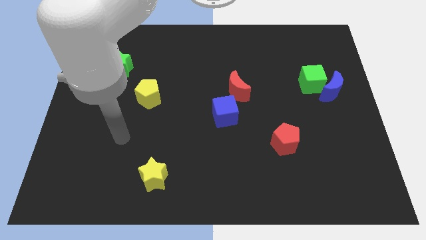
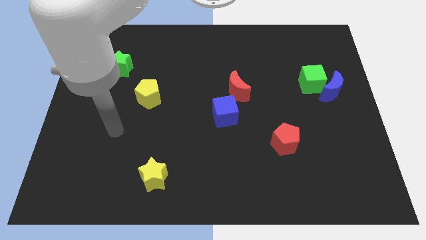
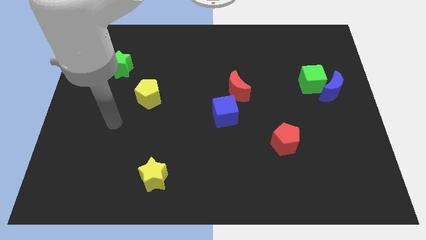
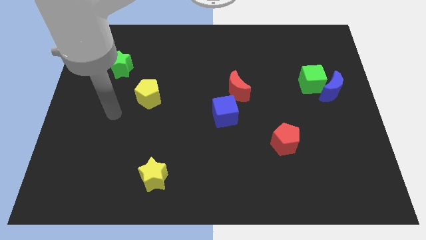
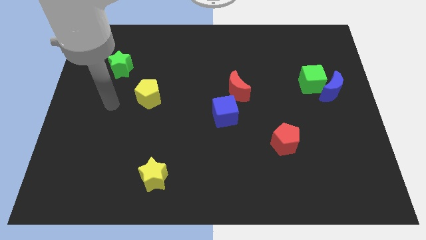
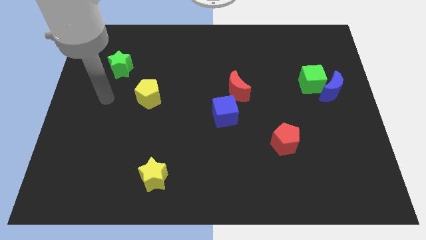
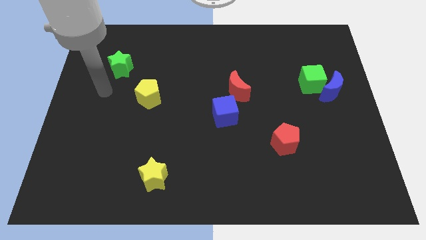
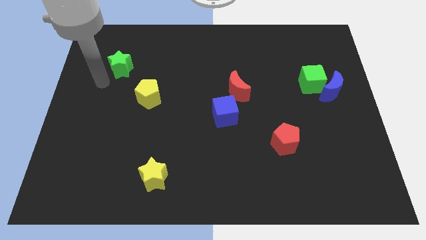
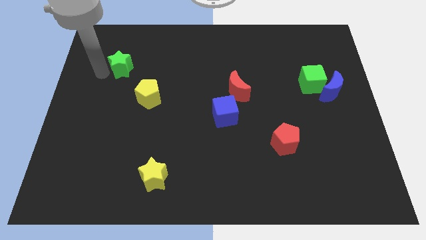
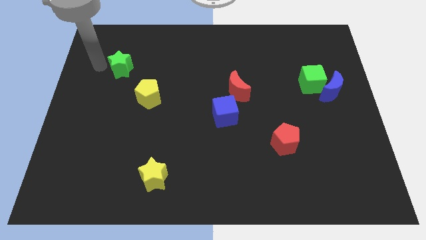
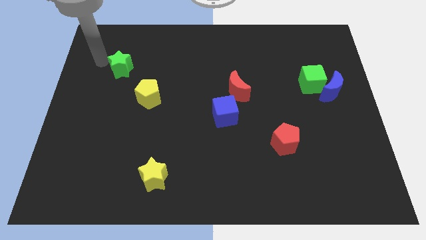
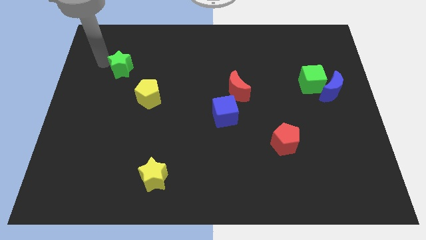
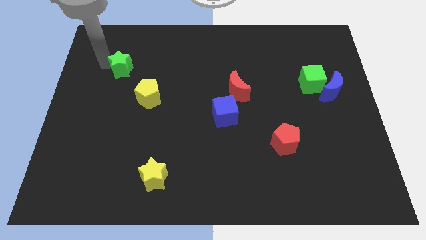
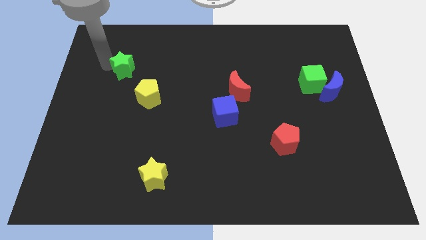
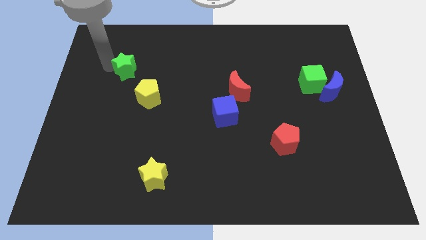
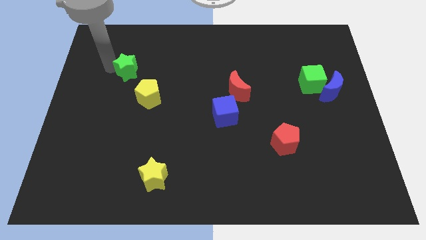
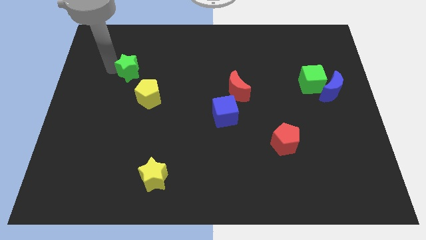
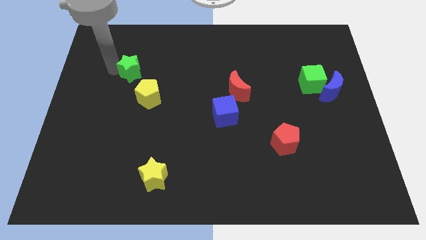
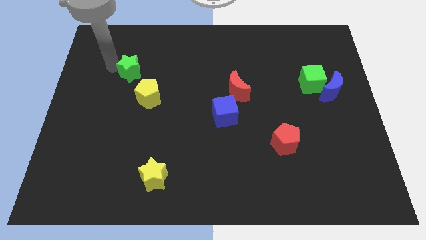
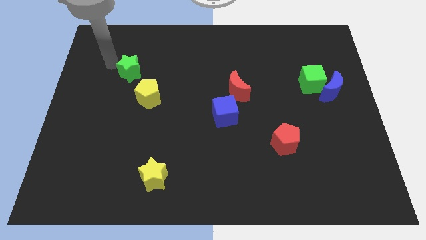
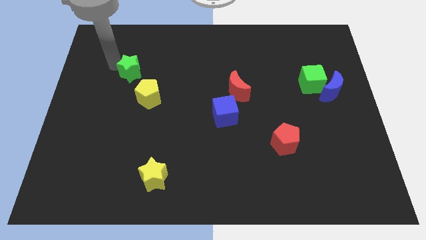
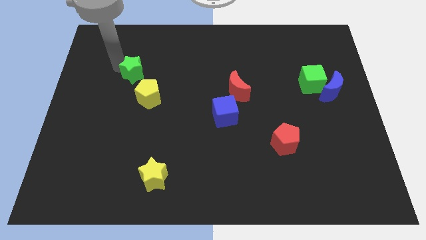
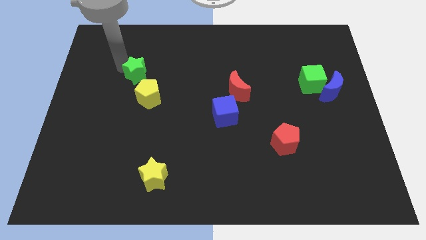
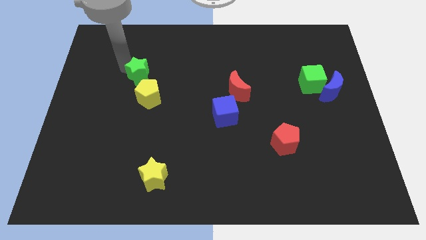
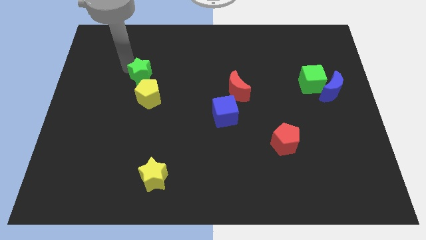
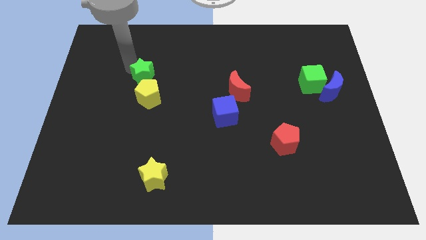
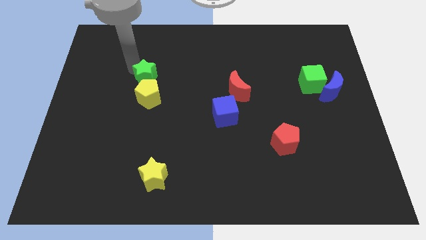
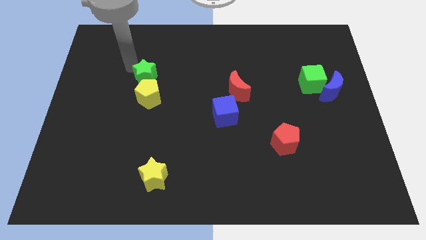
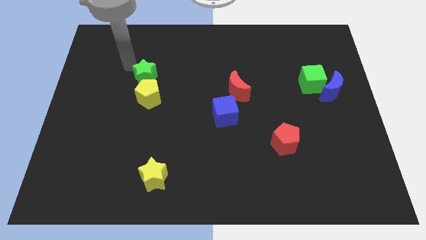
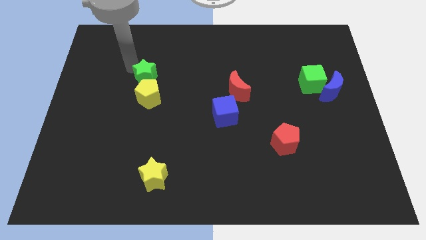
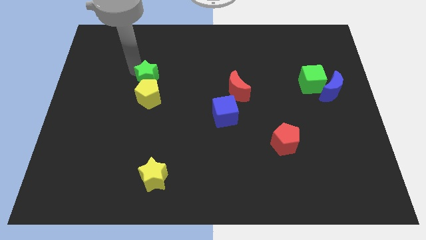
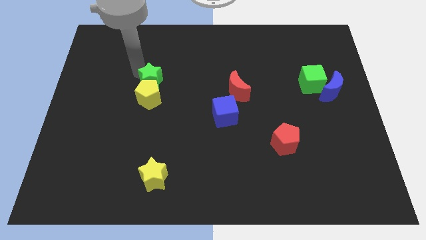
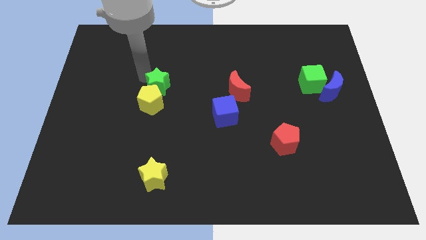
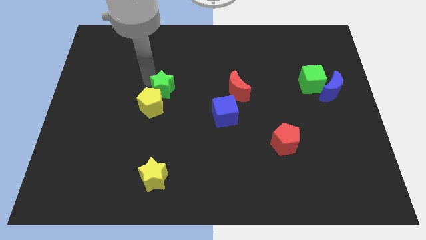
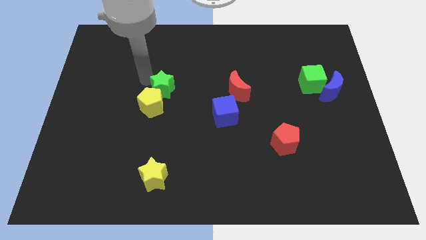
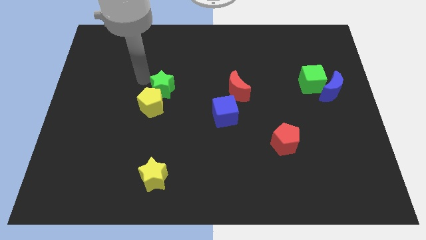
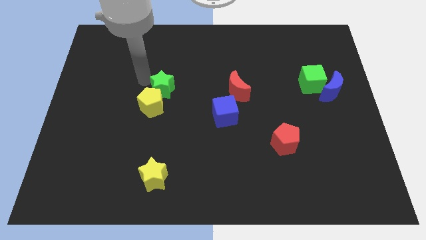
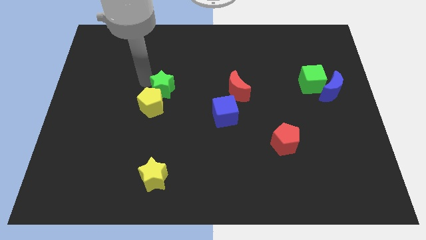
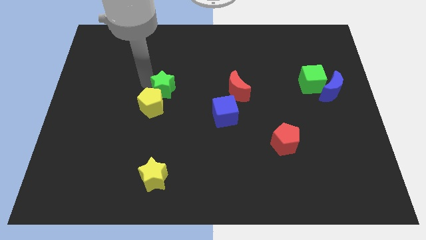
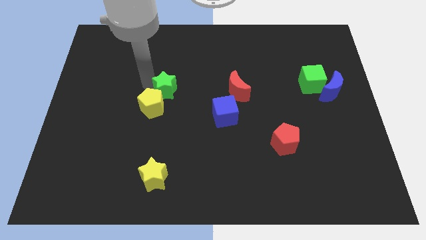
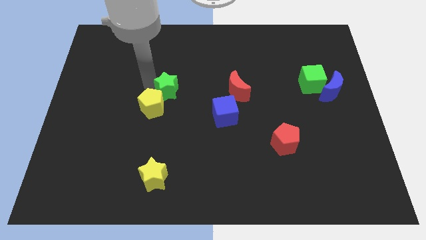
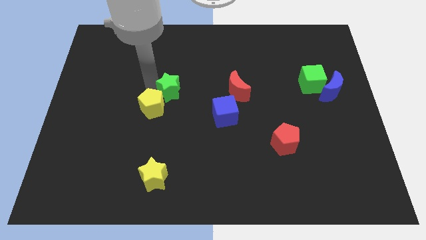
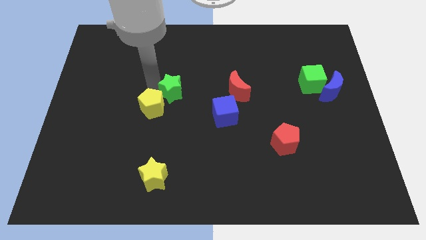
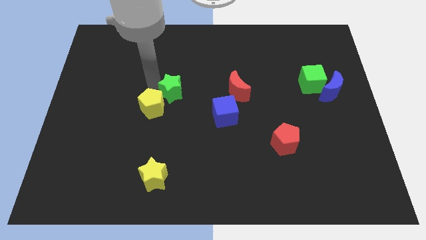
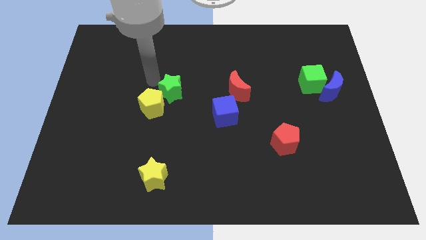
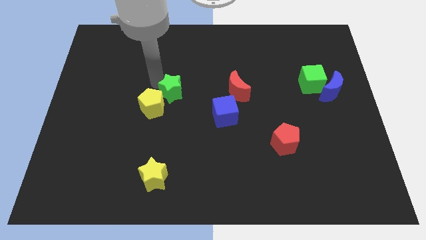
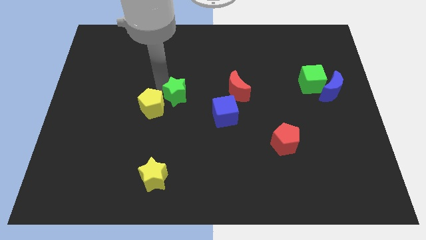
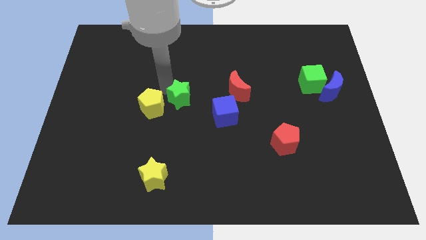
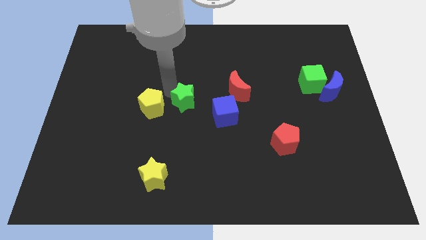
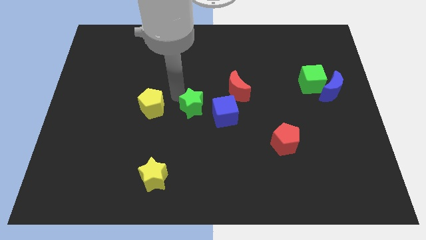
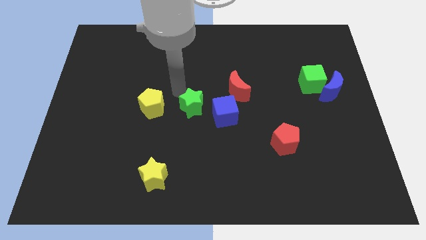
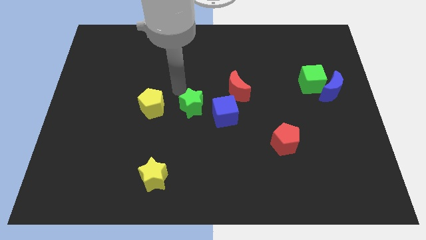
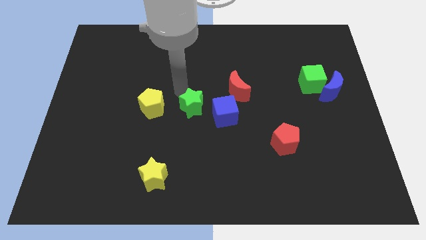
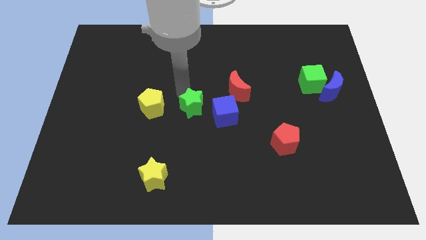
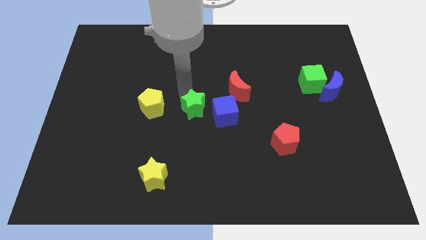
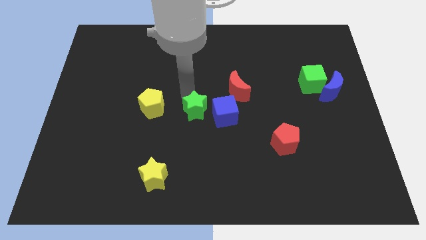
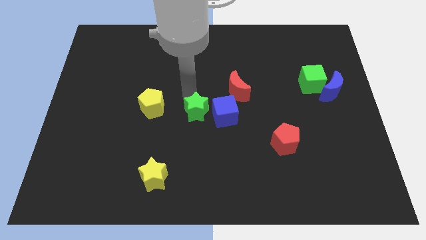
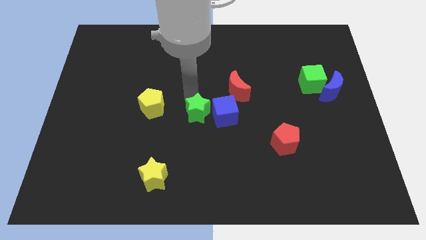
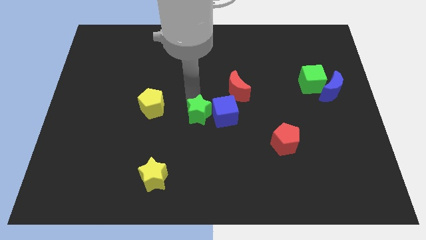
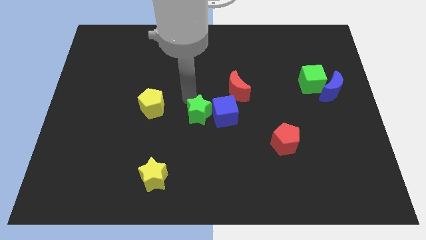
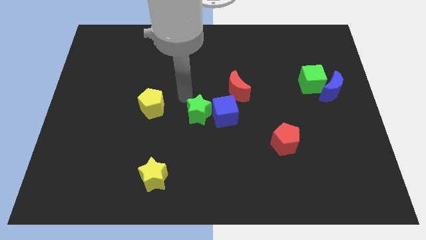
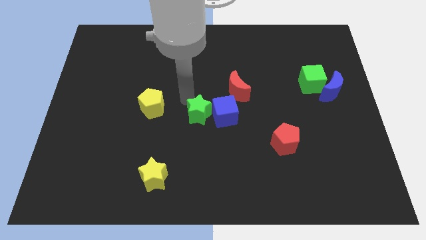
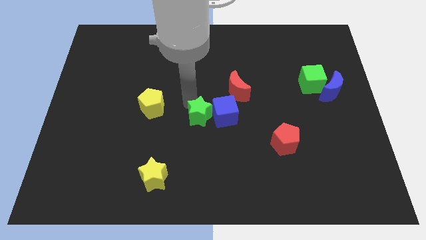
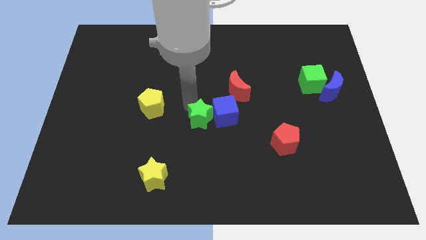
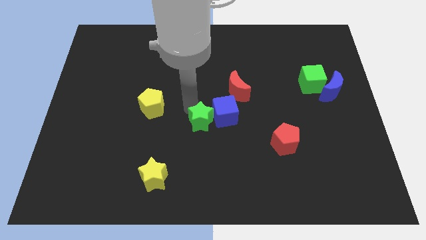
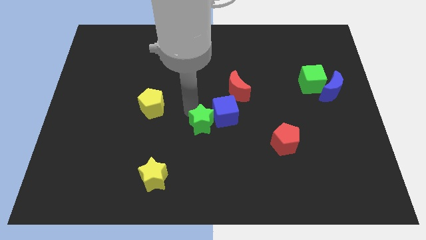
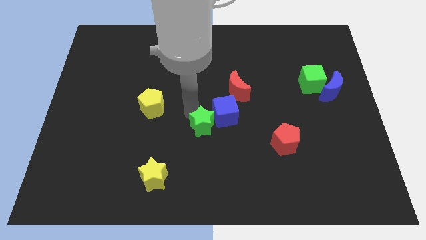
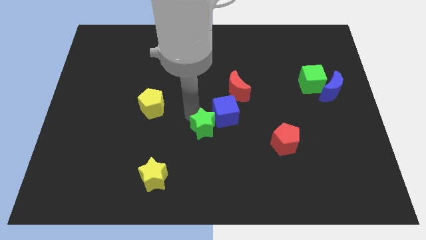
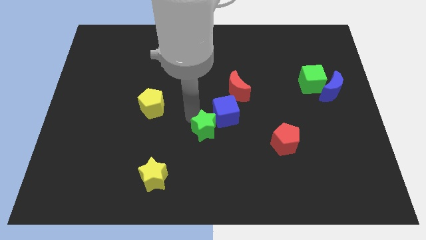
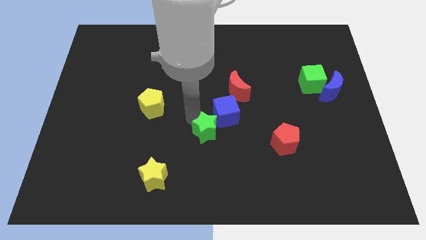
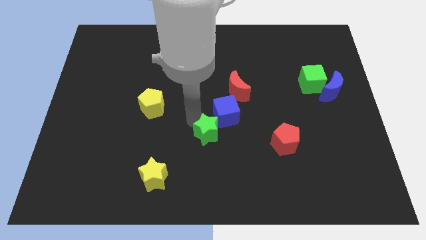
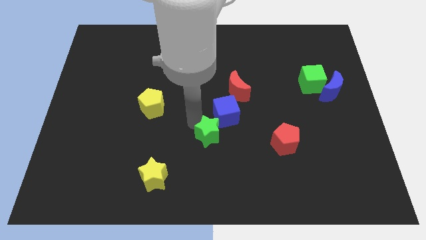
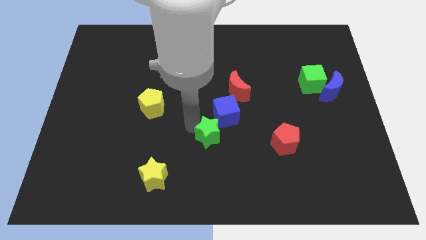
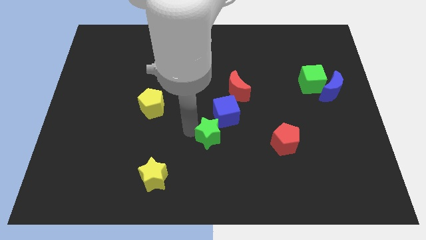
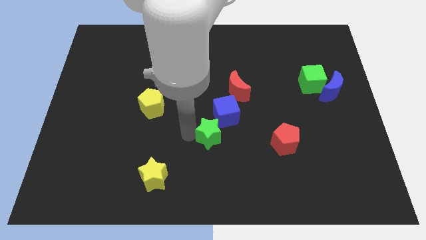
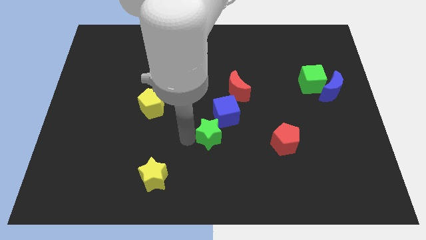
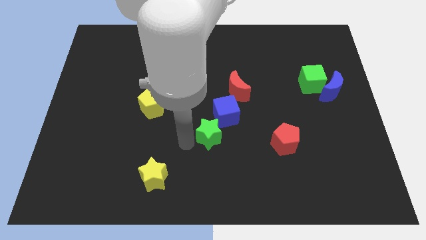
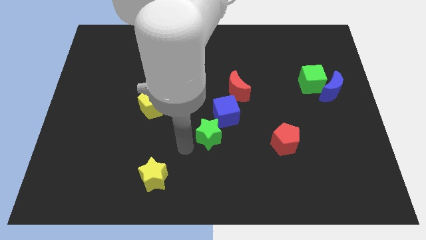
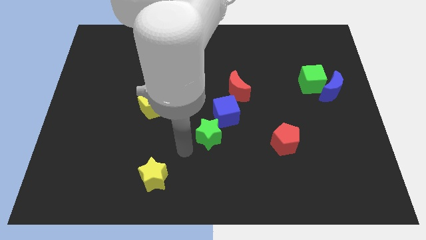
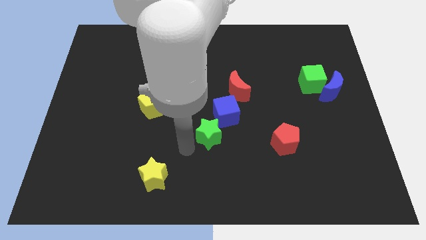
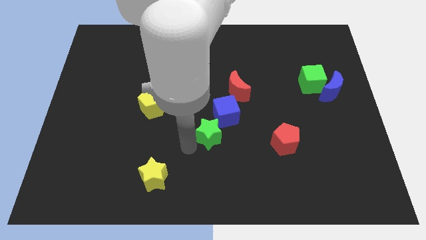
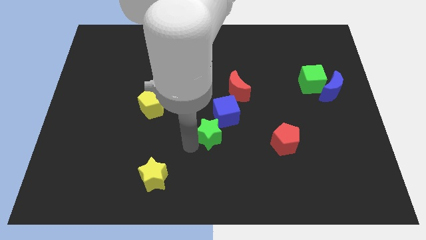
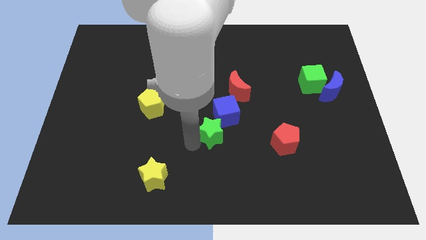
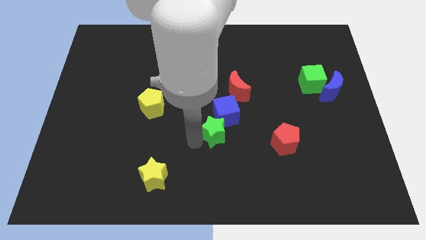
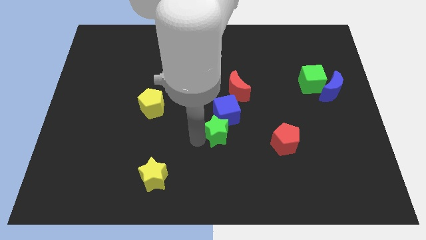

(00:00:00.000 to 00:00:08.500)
push the green star to the bottom side of the red moon
